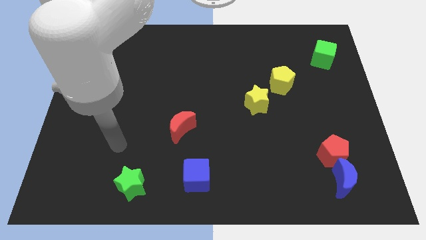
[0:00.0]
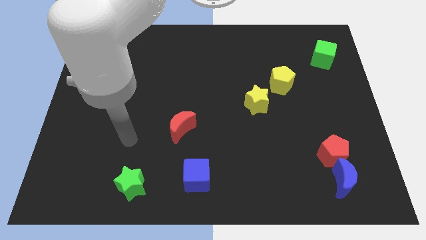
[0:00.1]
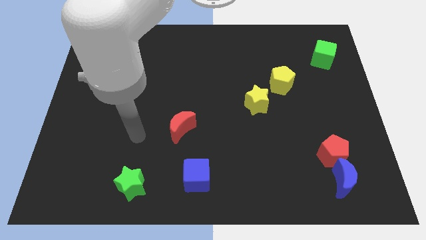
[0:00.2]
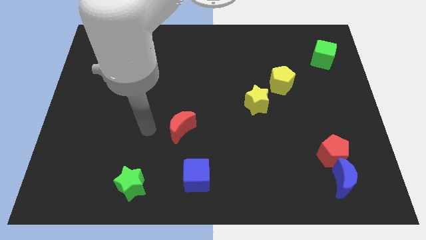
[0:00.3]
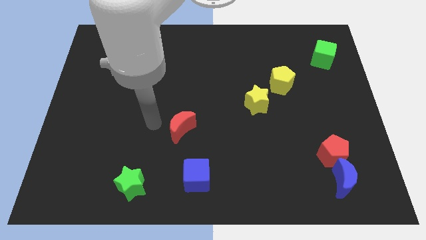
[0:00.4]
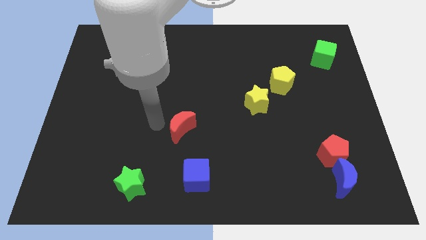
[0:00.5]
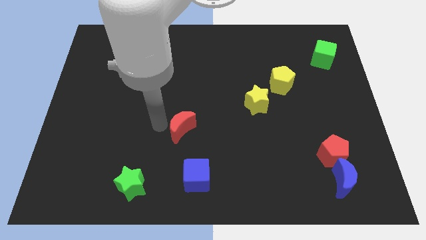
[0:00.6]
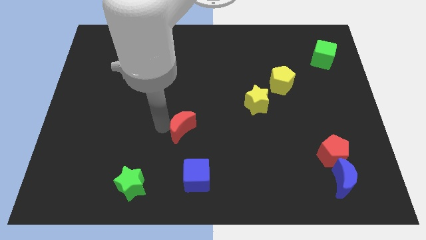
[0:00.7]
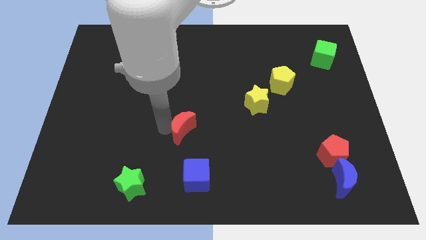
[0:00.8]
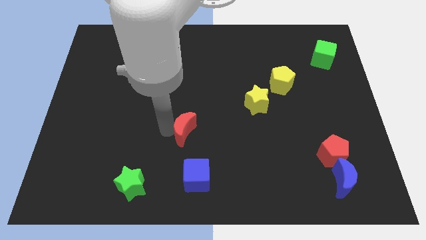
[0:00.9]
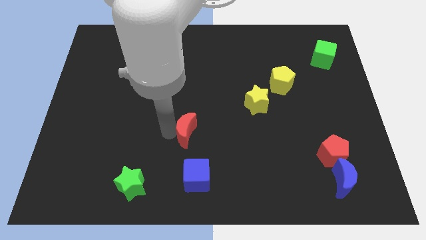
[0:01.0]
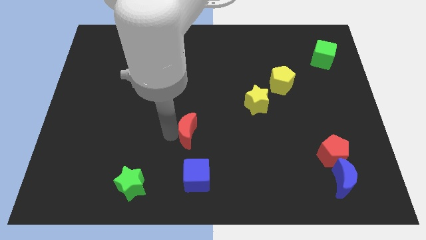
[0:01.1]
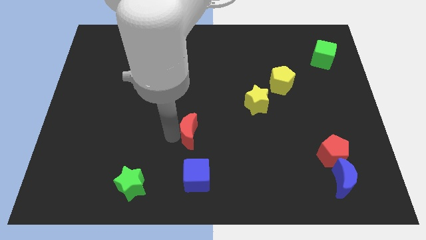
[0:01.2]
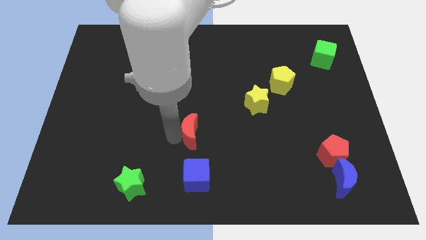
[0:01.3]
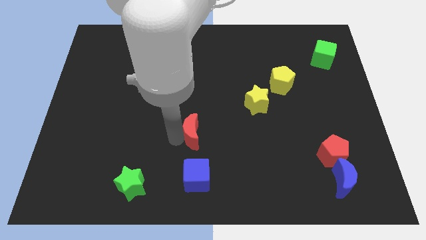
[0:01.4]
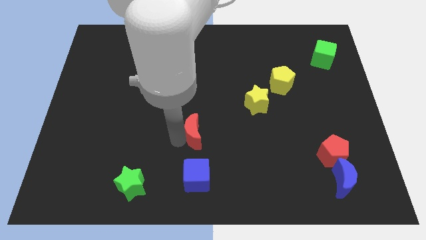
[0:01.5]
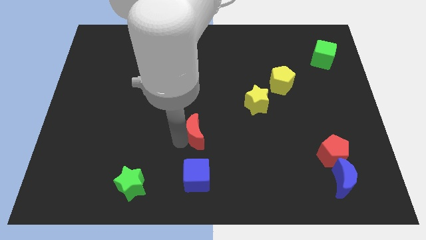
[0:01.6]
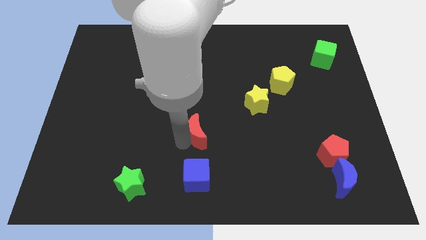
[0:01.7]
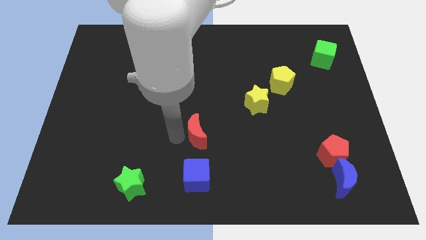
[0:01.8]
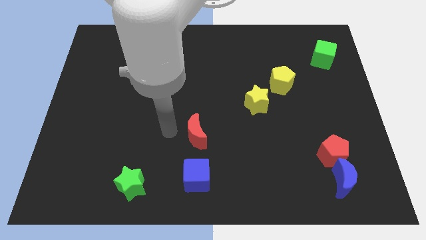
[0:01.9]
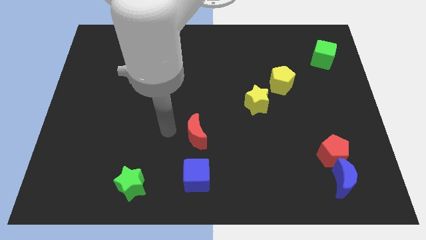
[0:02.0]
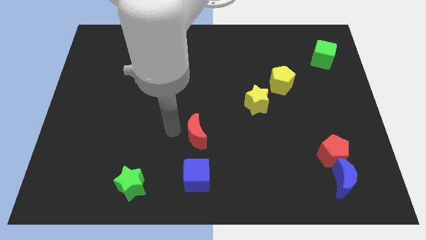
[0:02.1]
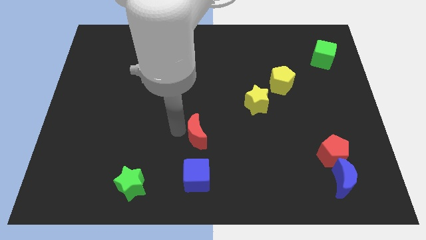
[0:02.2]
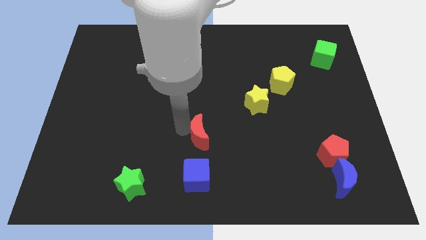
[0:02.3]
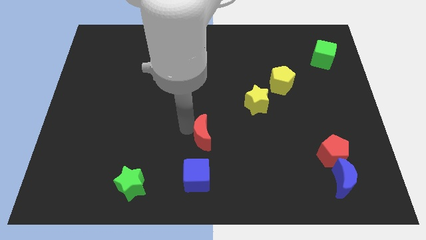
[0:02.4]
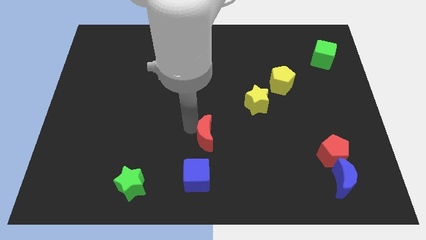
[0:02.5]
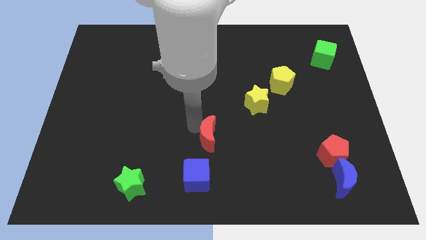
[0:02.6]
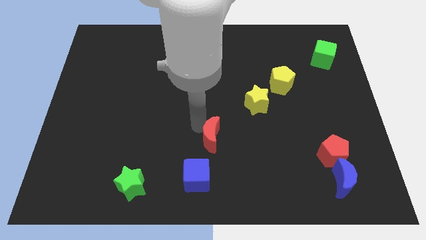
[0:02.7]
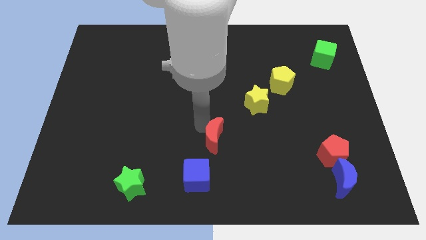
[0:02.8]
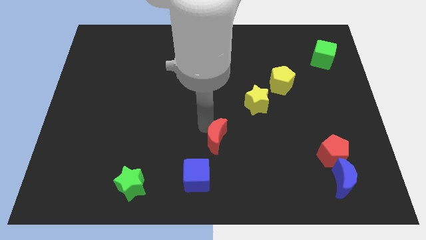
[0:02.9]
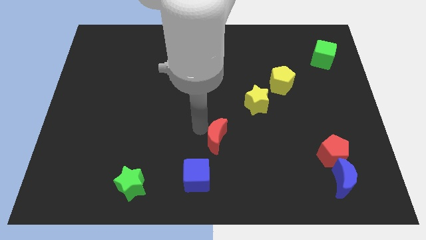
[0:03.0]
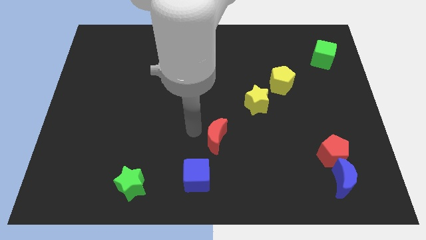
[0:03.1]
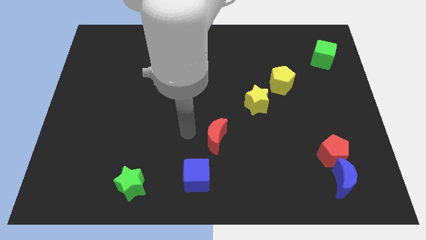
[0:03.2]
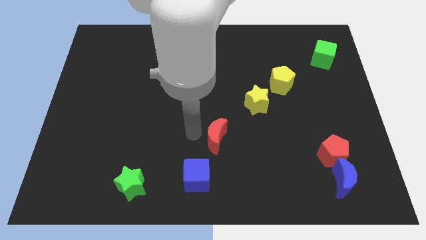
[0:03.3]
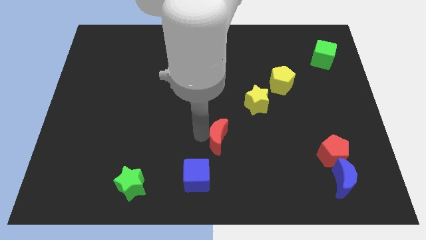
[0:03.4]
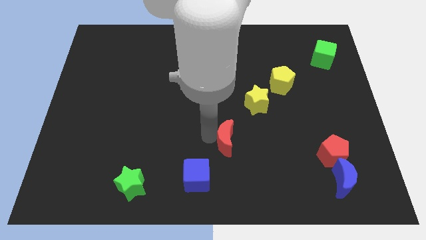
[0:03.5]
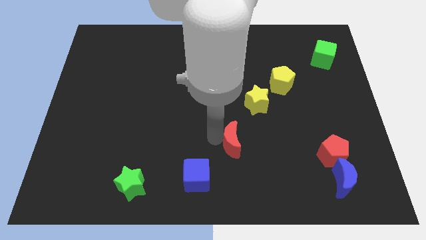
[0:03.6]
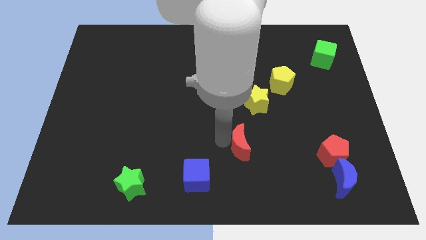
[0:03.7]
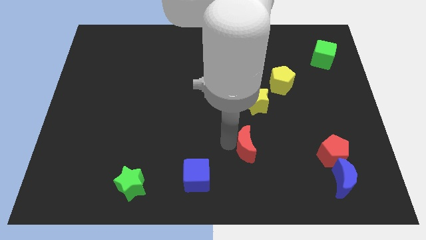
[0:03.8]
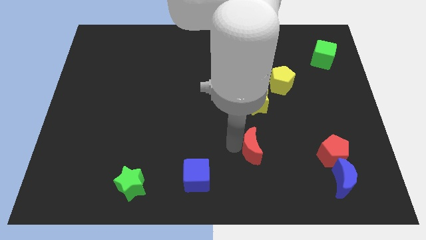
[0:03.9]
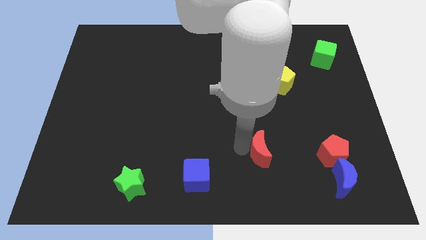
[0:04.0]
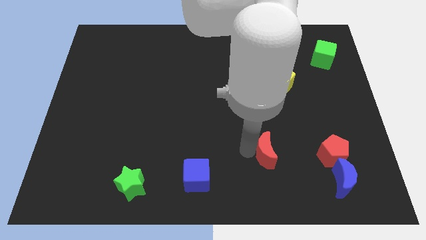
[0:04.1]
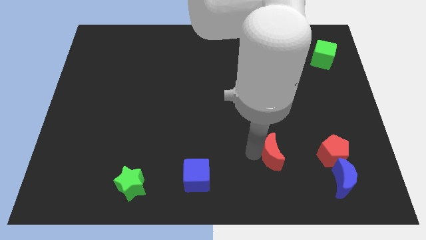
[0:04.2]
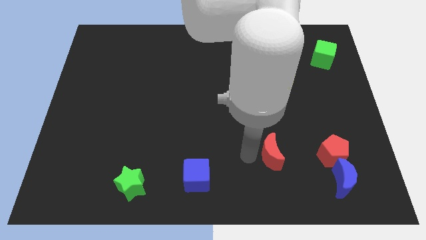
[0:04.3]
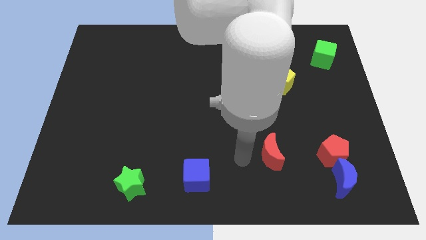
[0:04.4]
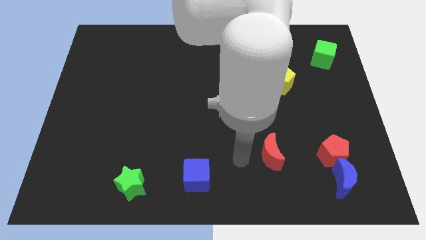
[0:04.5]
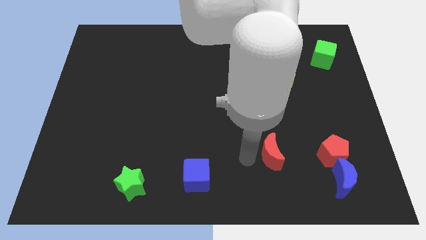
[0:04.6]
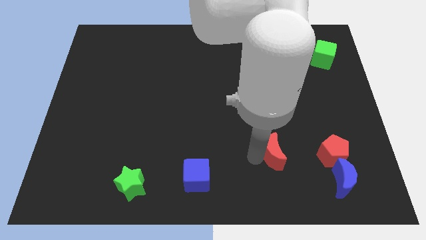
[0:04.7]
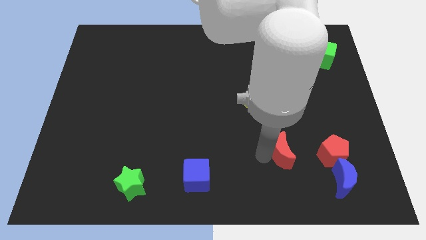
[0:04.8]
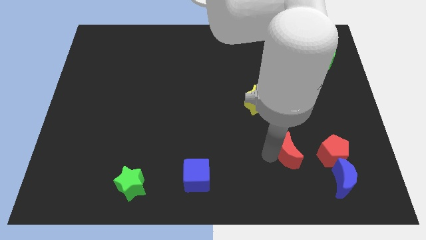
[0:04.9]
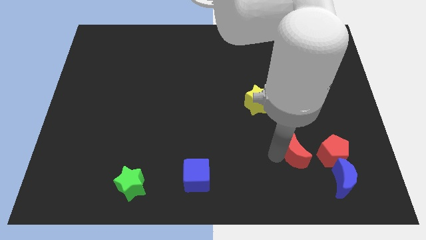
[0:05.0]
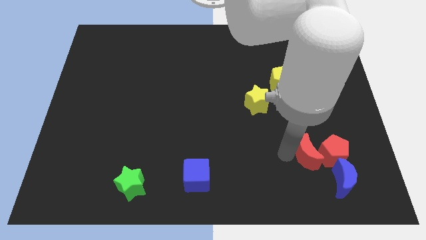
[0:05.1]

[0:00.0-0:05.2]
slide the red moon to the red pentagon

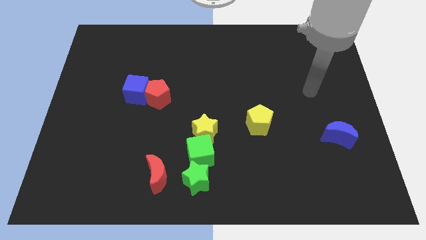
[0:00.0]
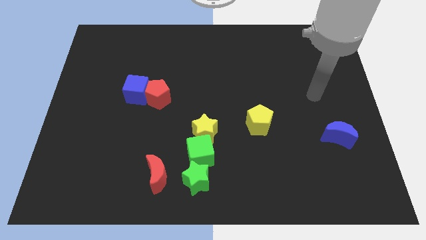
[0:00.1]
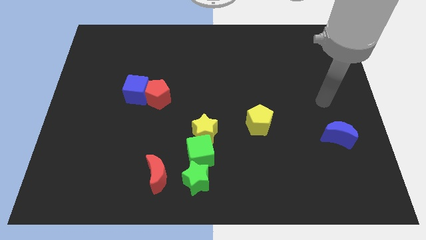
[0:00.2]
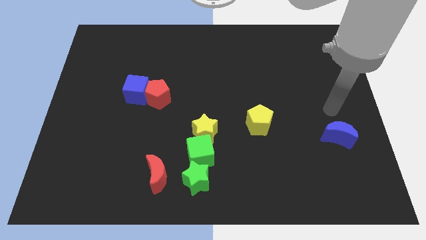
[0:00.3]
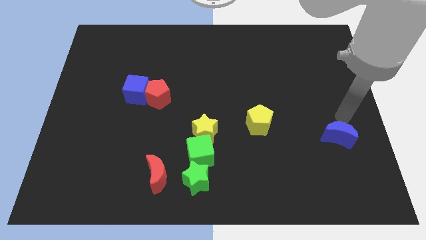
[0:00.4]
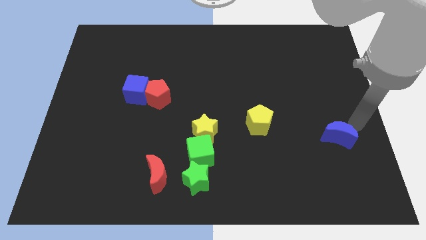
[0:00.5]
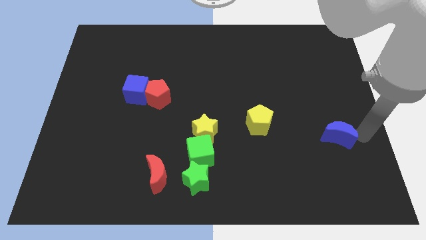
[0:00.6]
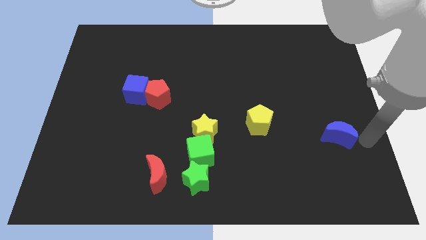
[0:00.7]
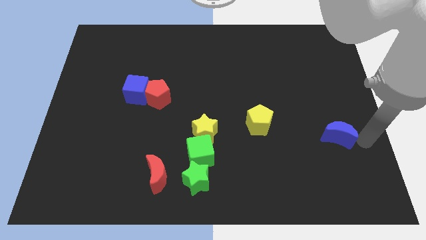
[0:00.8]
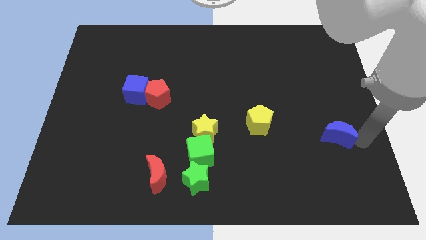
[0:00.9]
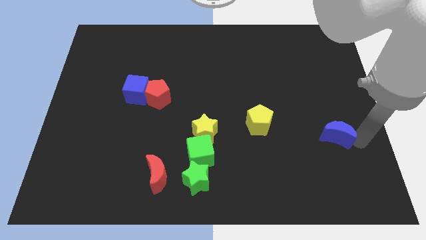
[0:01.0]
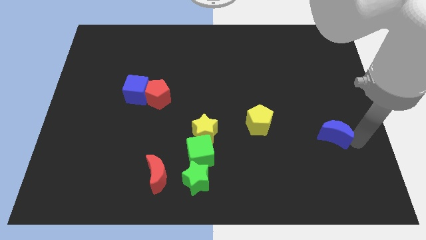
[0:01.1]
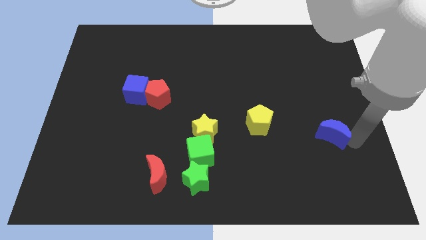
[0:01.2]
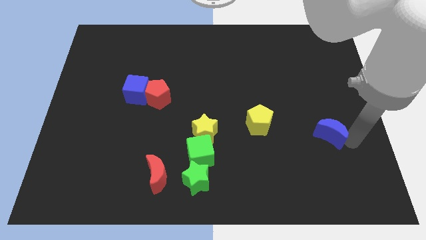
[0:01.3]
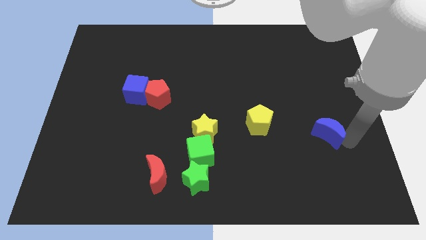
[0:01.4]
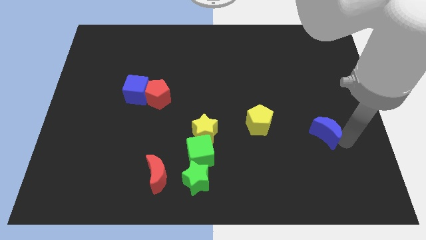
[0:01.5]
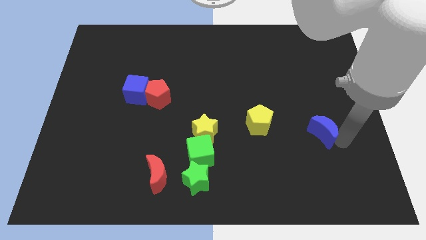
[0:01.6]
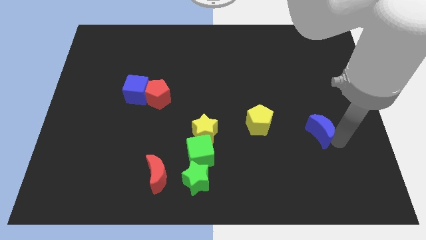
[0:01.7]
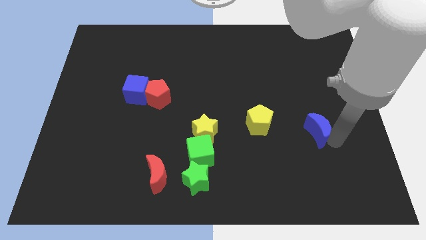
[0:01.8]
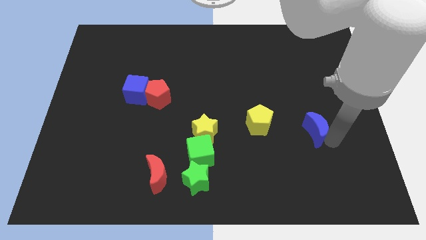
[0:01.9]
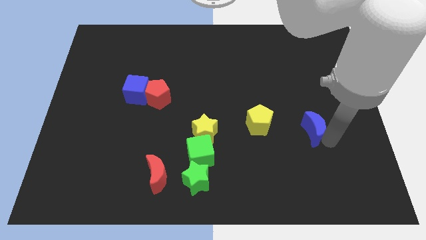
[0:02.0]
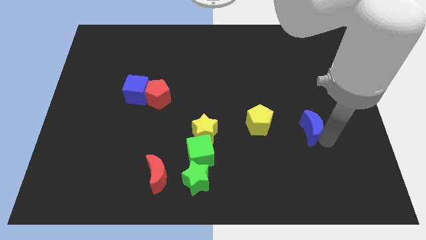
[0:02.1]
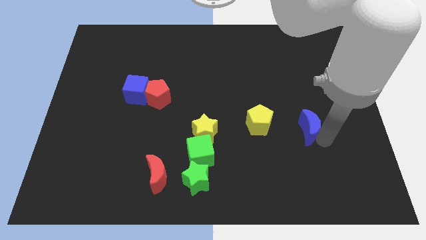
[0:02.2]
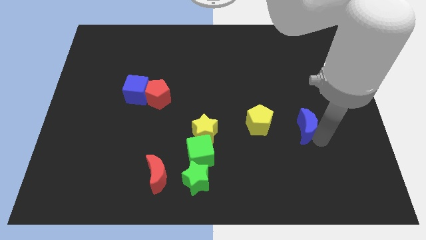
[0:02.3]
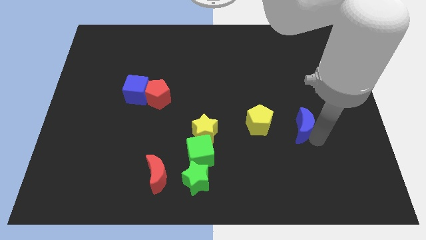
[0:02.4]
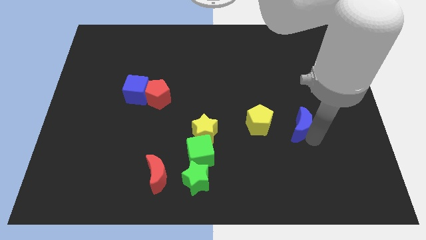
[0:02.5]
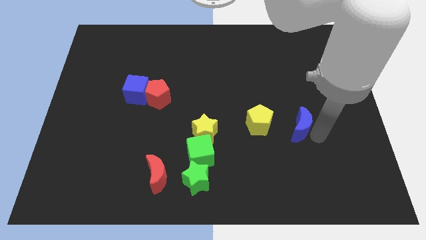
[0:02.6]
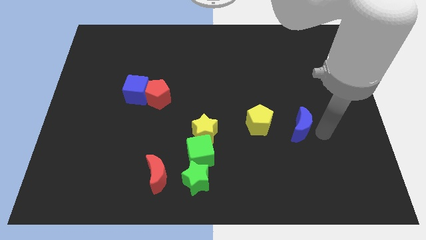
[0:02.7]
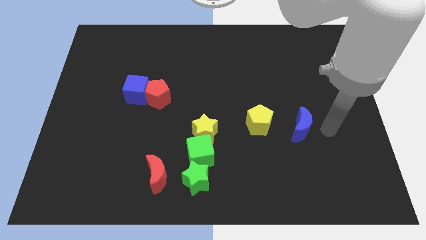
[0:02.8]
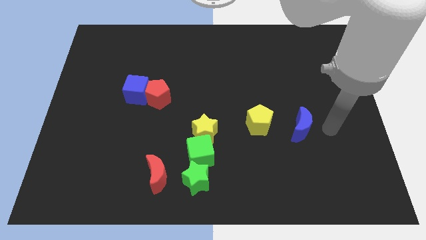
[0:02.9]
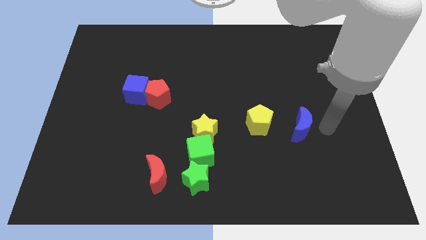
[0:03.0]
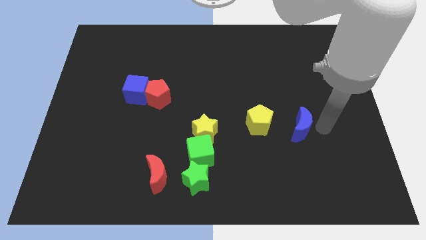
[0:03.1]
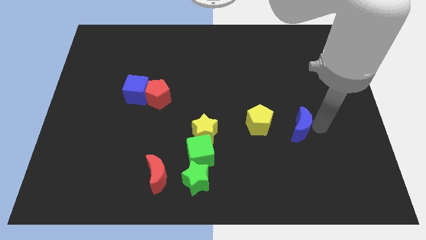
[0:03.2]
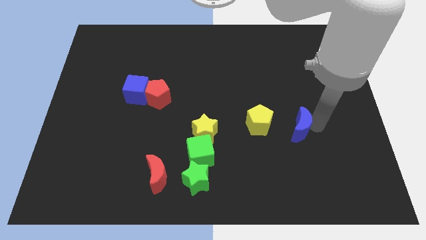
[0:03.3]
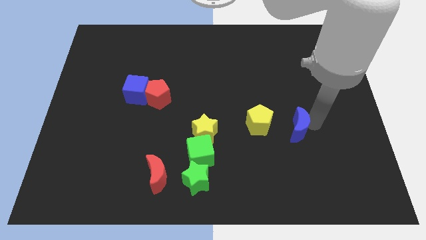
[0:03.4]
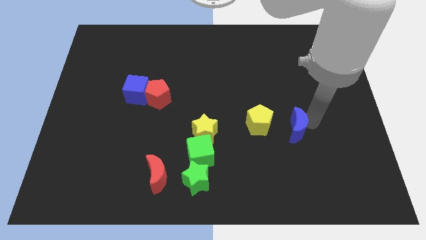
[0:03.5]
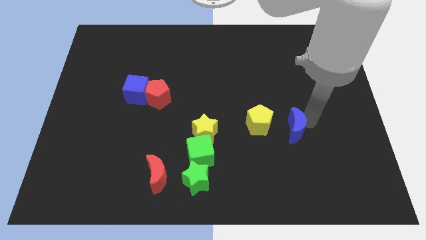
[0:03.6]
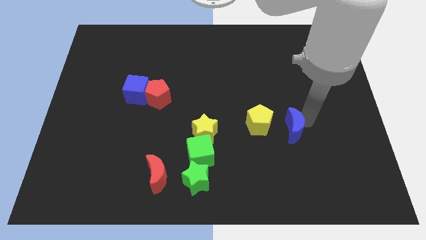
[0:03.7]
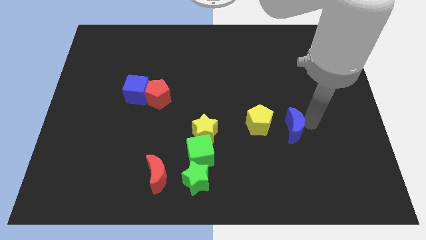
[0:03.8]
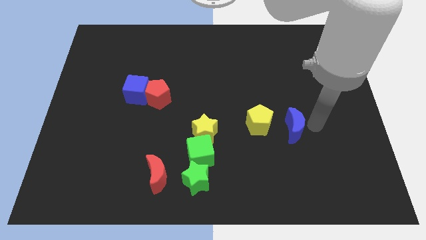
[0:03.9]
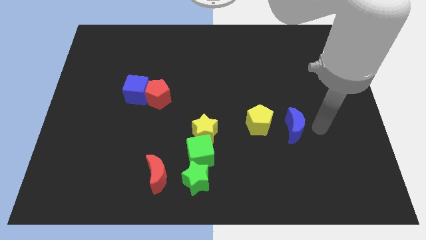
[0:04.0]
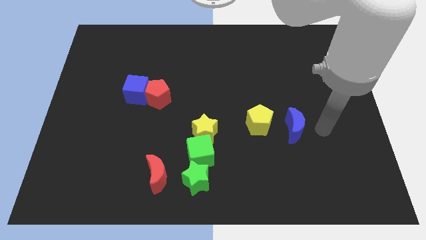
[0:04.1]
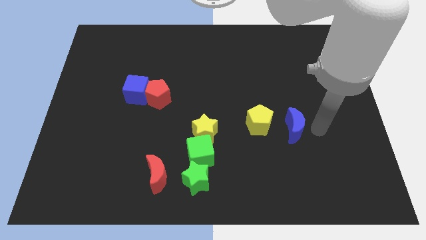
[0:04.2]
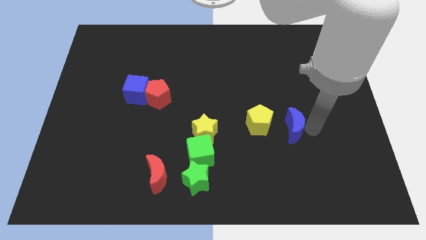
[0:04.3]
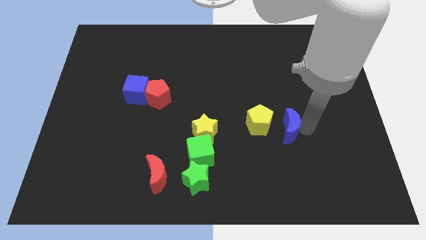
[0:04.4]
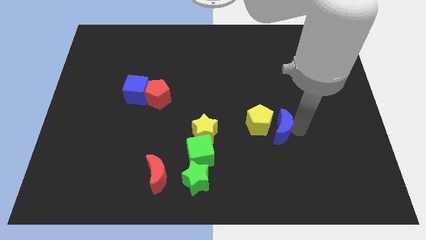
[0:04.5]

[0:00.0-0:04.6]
push the blue moon close to the yellow pentagon
